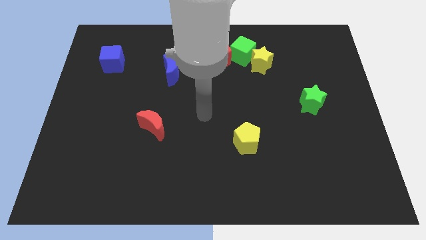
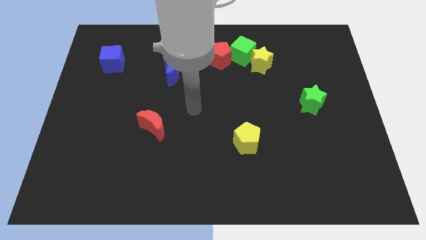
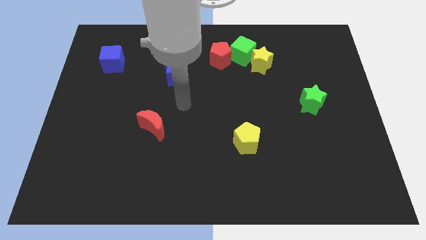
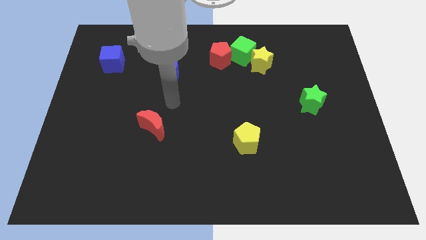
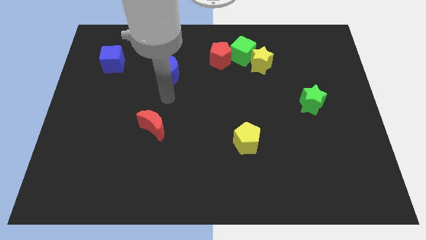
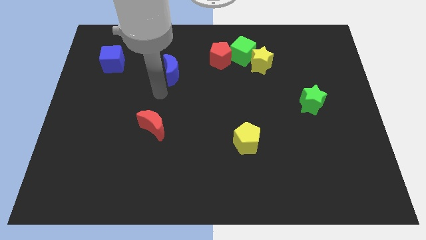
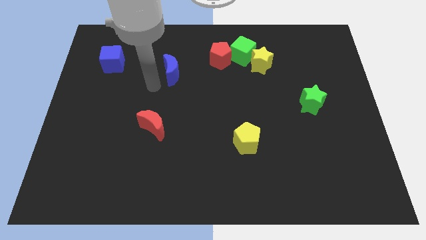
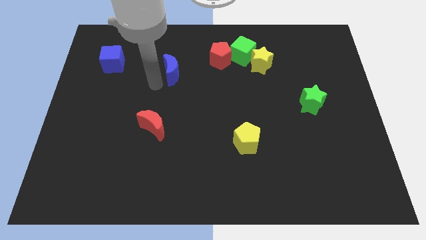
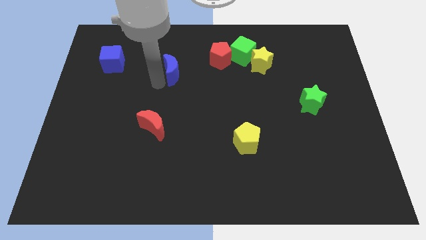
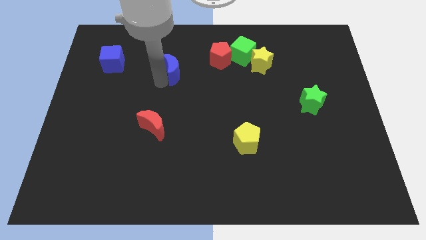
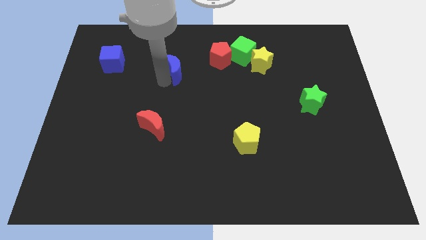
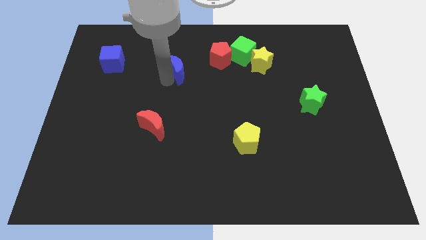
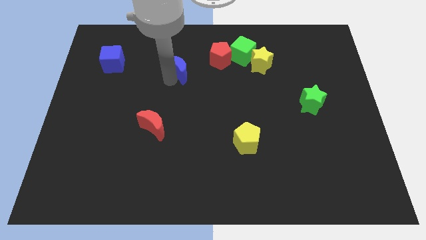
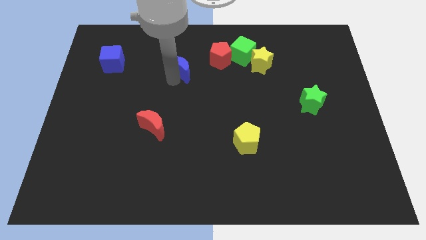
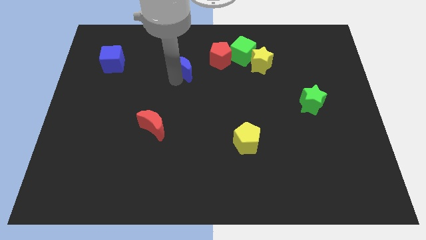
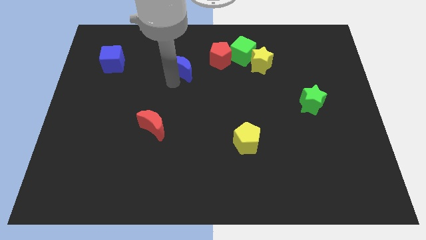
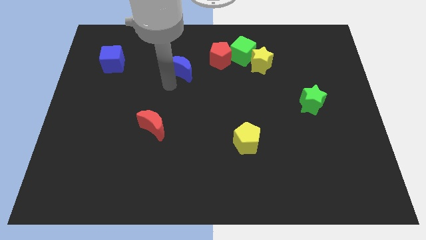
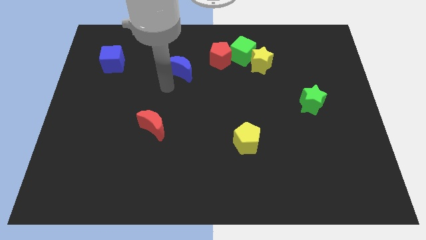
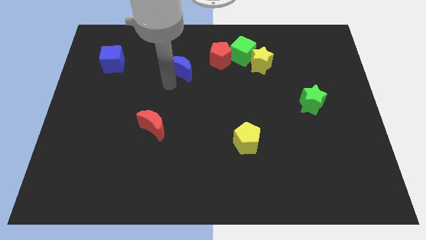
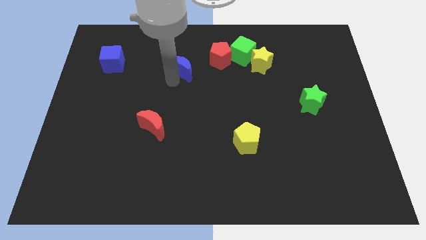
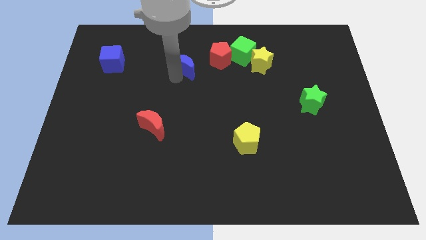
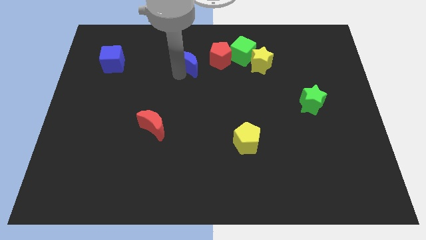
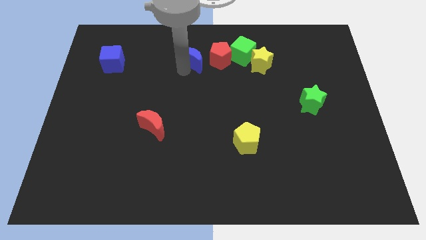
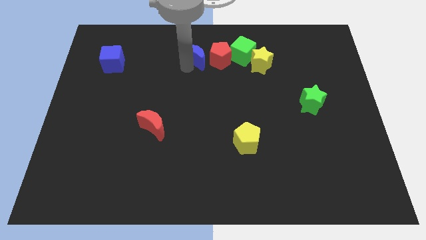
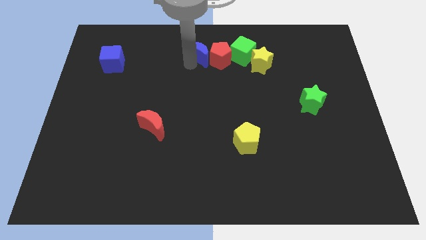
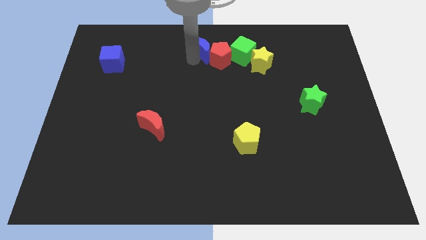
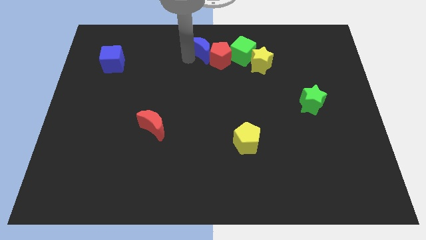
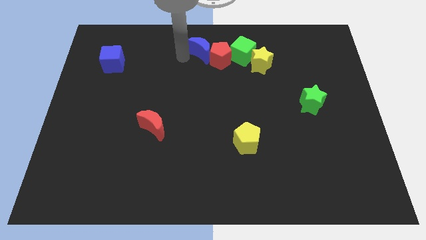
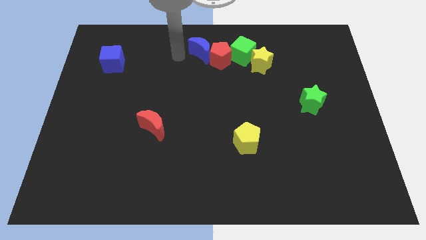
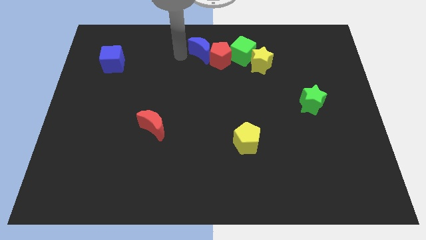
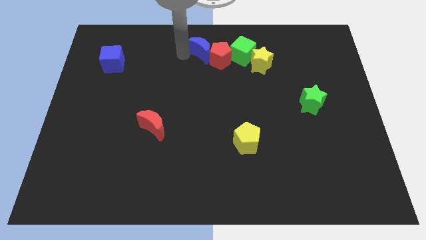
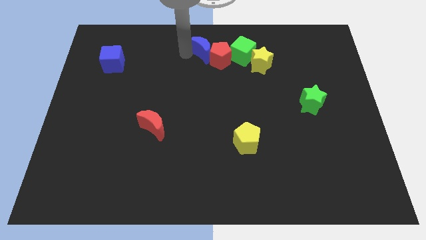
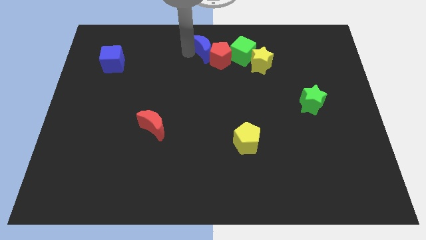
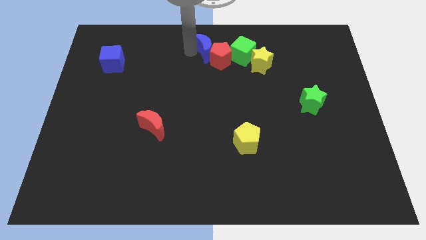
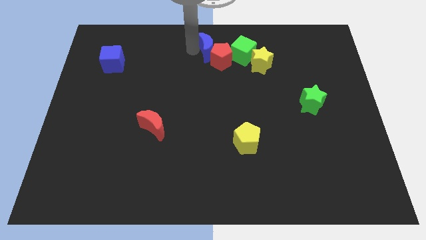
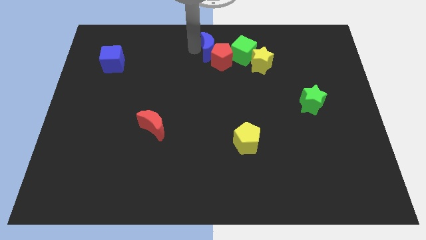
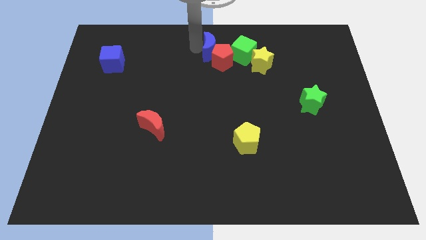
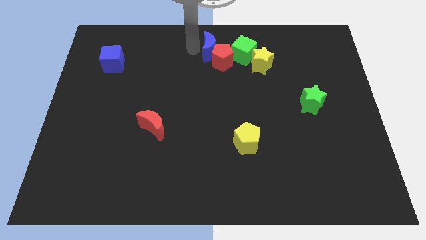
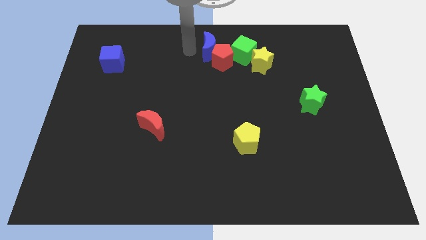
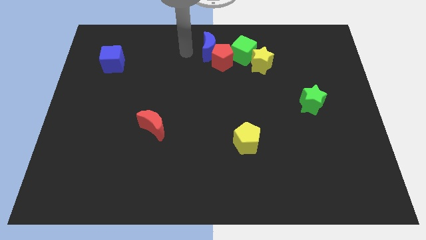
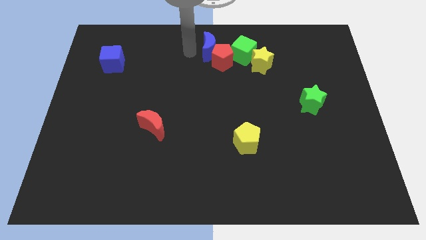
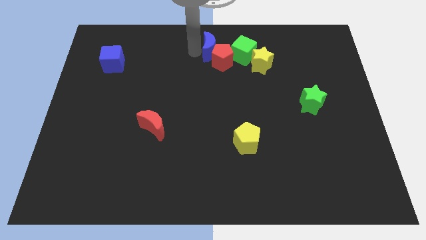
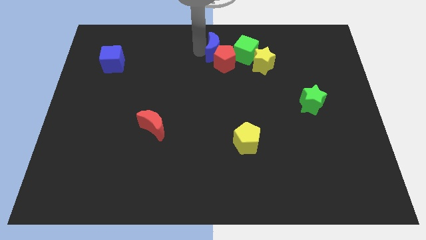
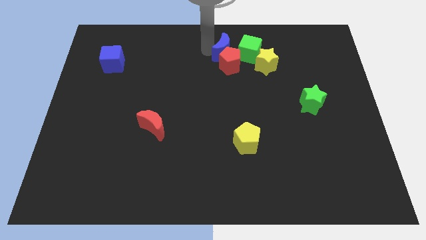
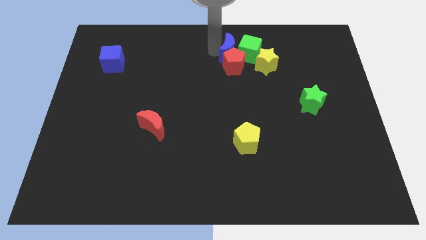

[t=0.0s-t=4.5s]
push the blue moon towards the green cube

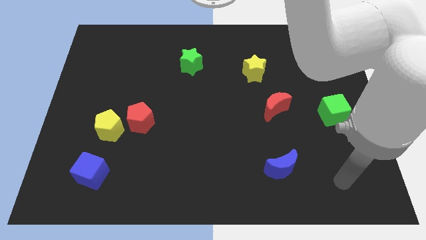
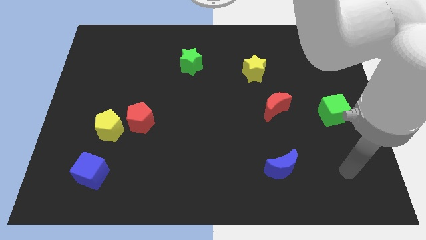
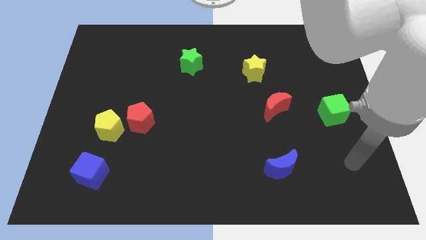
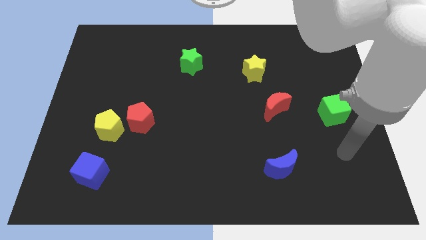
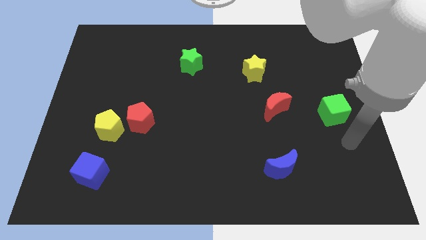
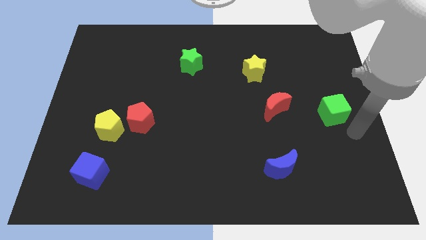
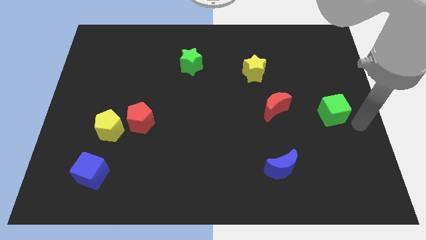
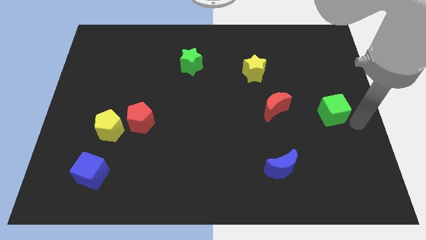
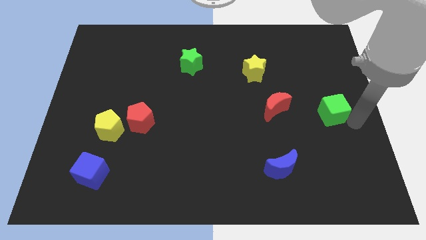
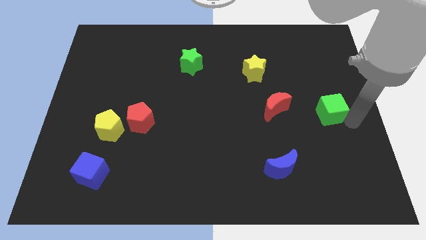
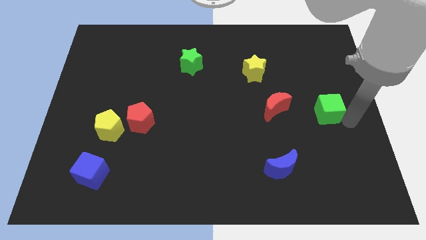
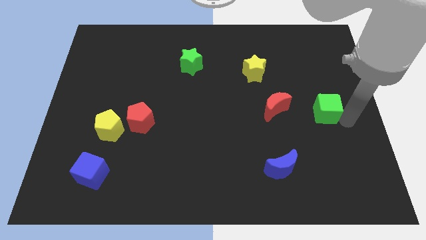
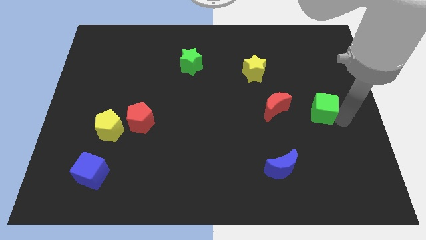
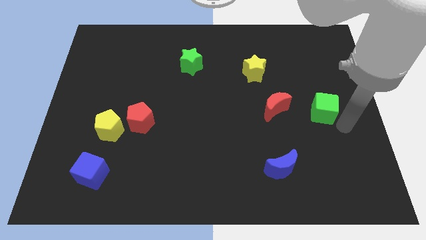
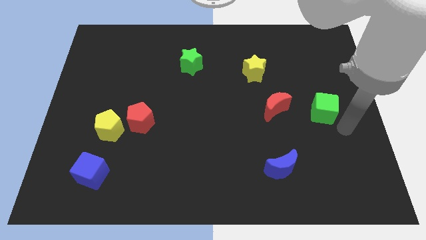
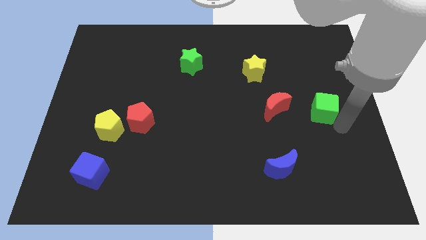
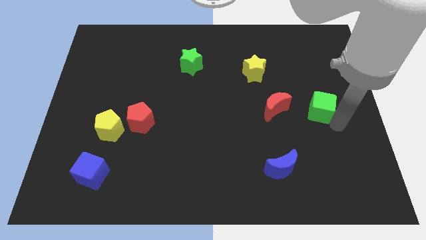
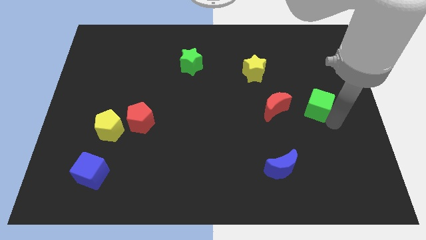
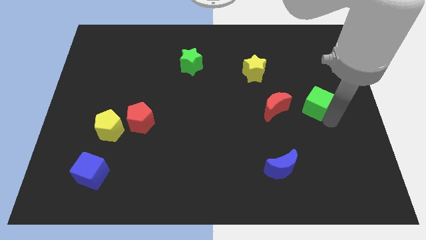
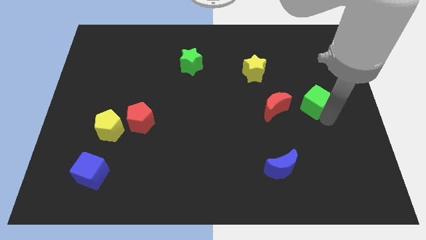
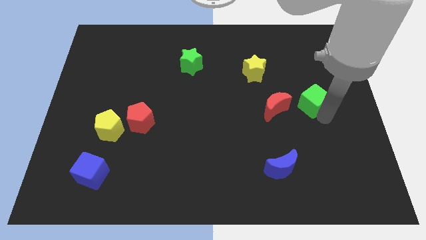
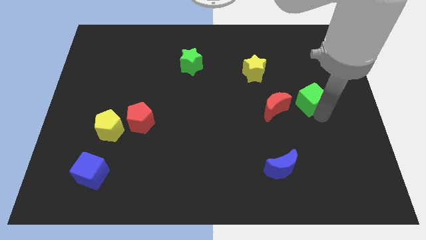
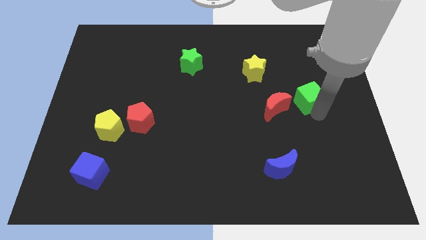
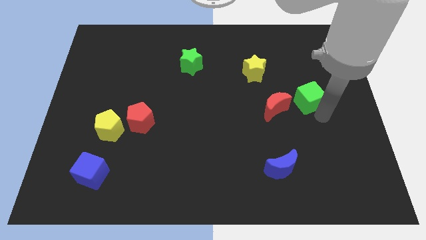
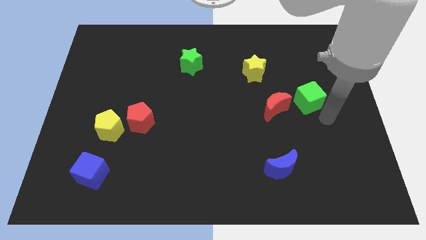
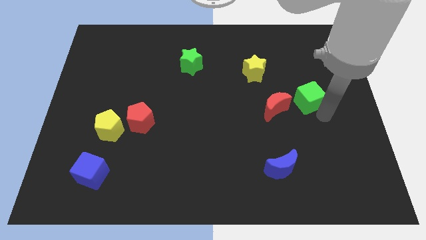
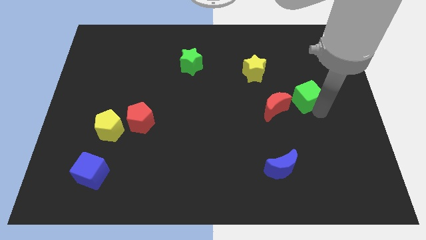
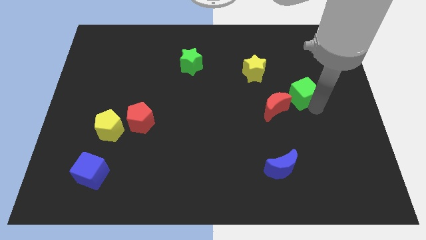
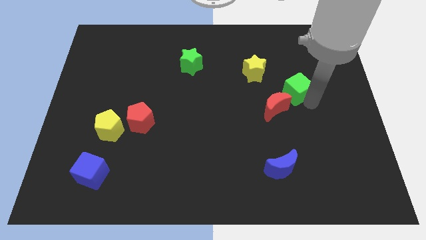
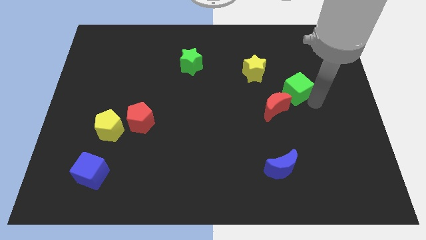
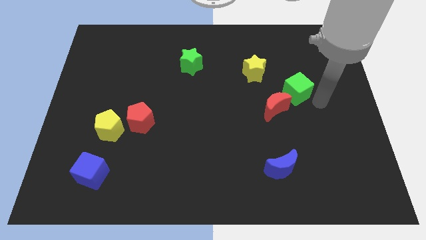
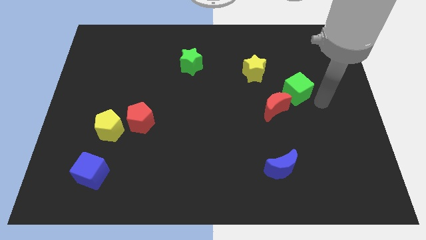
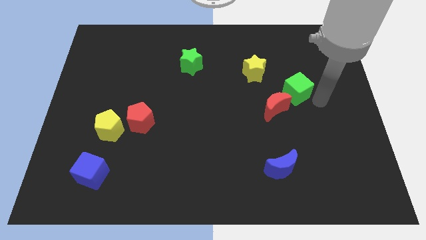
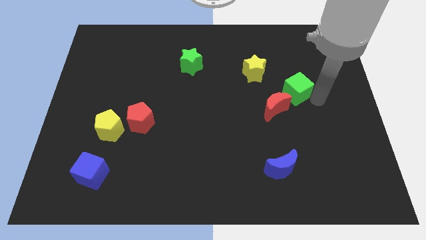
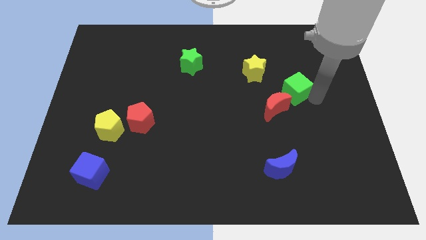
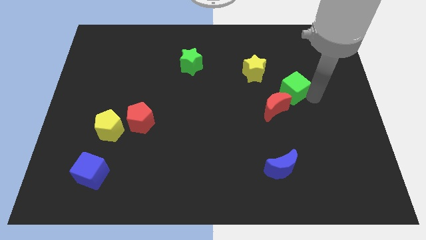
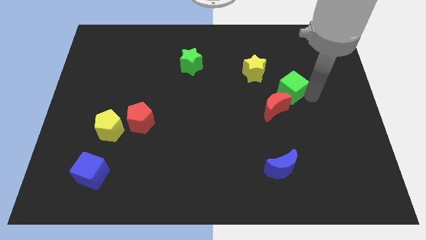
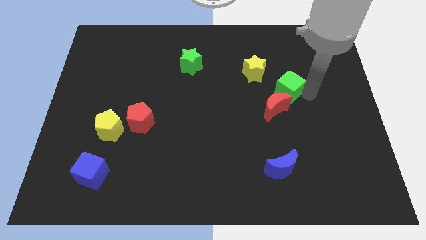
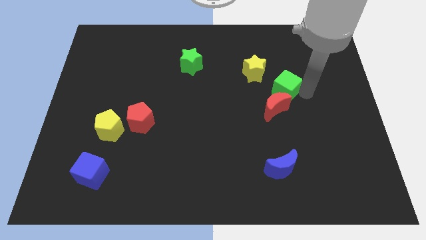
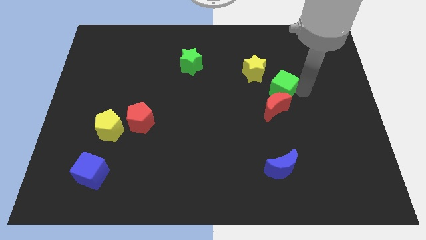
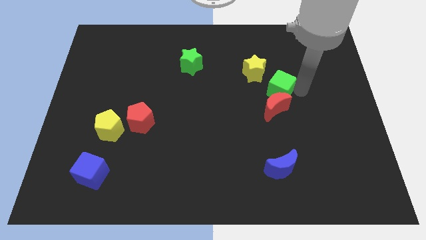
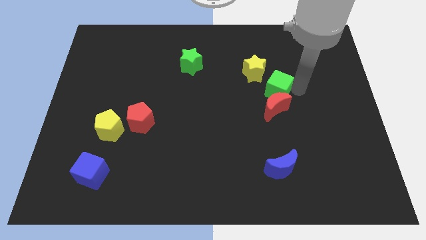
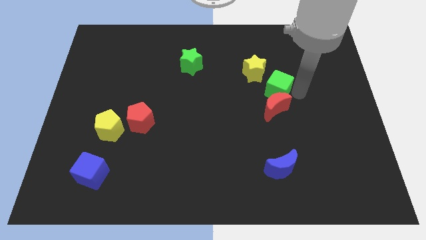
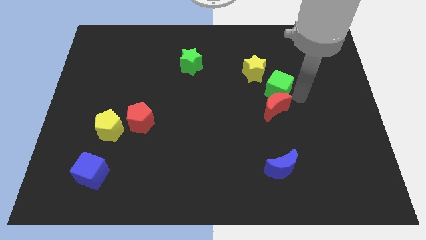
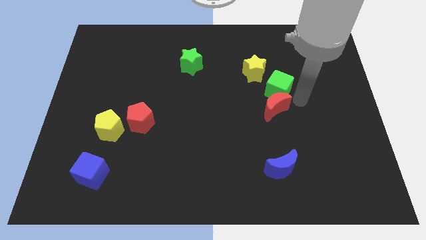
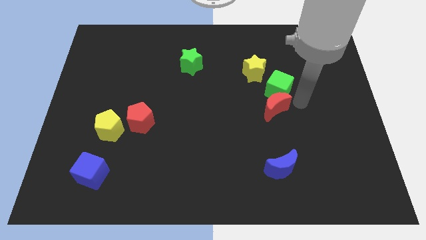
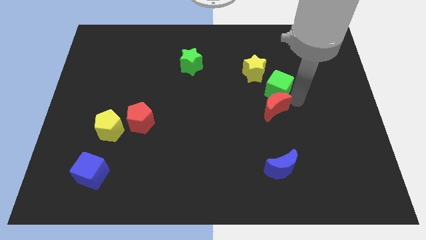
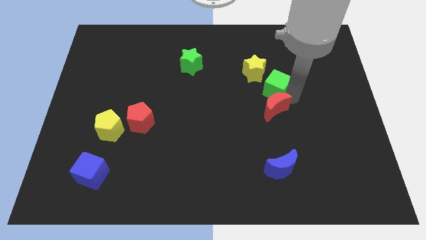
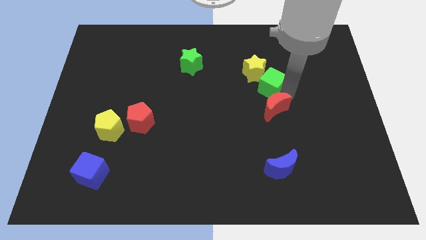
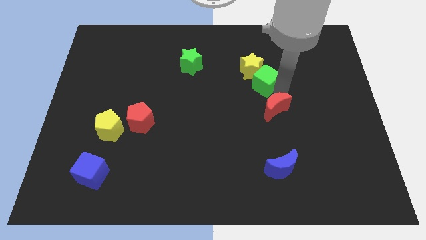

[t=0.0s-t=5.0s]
slide the green cube close to the yellow star
